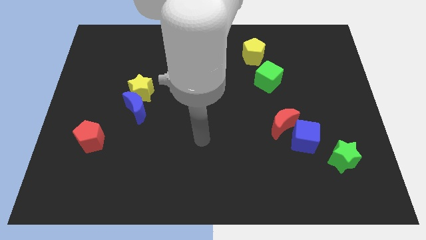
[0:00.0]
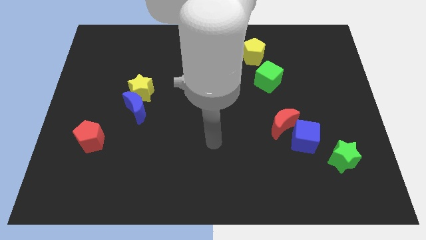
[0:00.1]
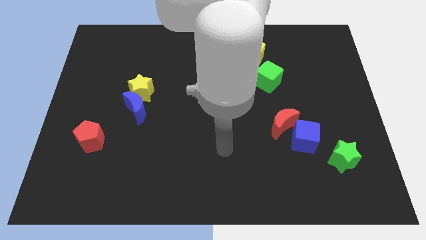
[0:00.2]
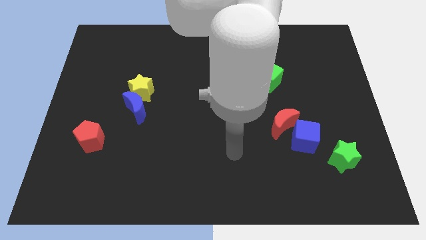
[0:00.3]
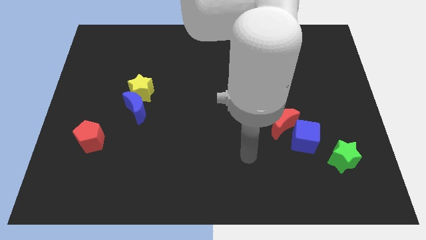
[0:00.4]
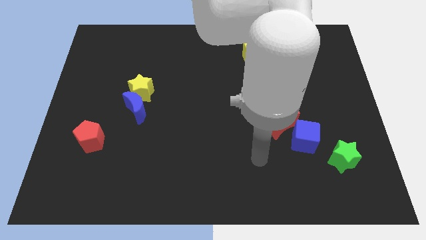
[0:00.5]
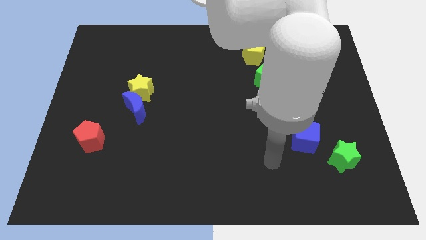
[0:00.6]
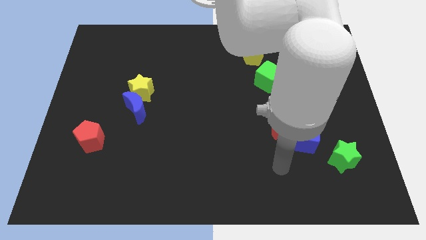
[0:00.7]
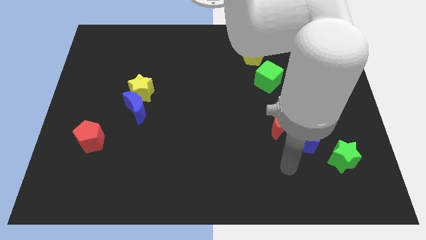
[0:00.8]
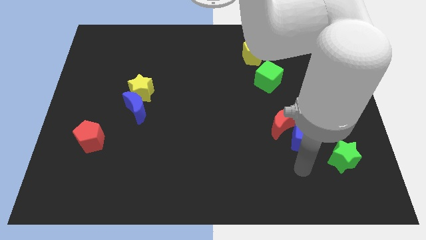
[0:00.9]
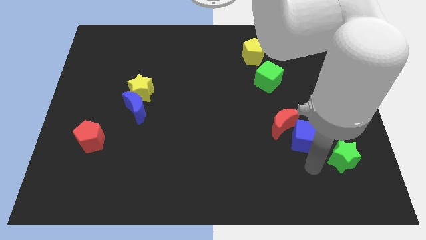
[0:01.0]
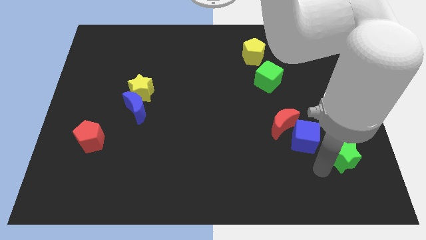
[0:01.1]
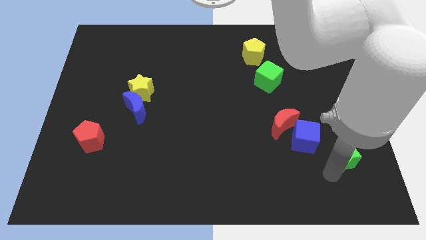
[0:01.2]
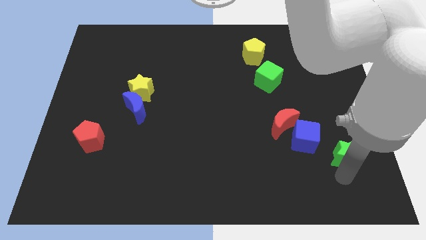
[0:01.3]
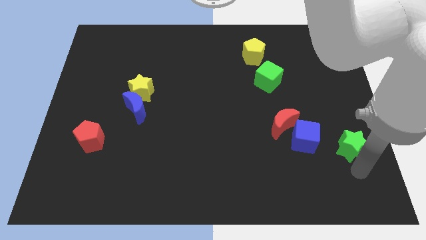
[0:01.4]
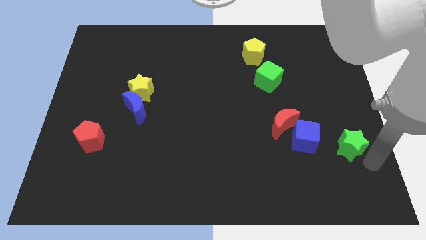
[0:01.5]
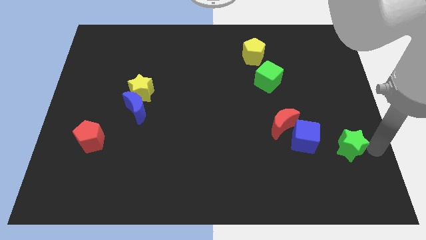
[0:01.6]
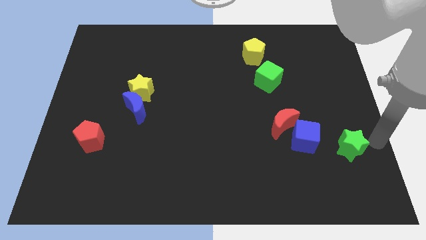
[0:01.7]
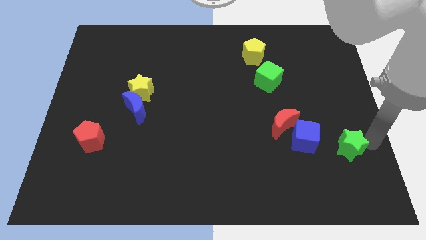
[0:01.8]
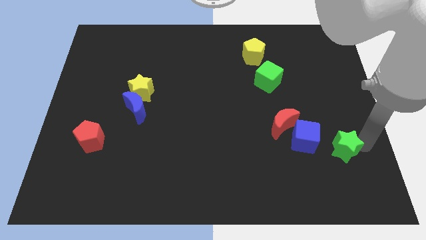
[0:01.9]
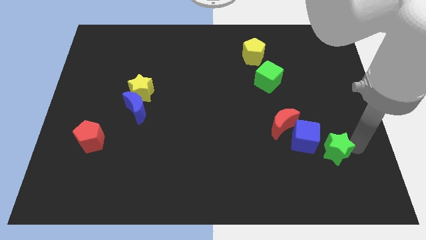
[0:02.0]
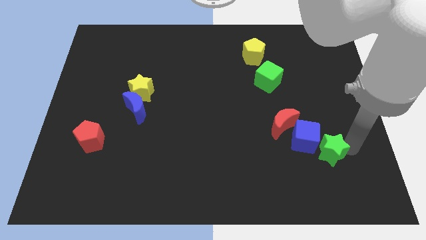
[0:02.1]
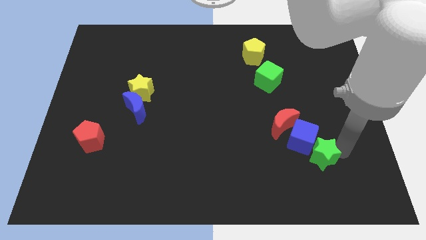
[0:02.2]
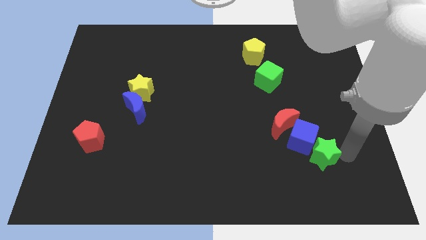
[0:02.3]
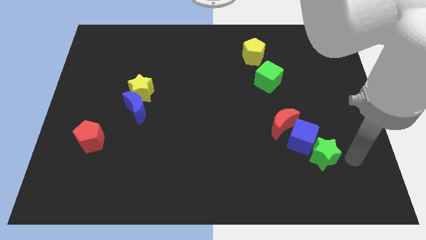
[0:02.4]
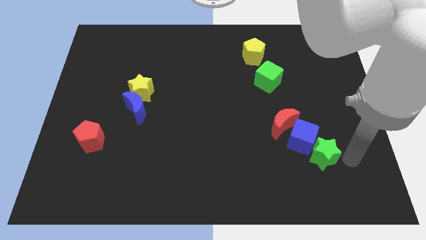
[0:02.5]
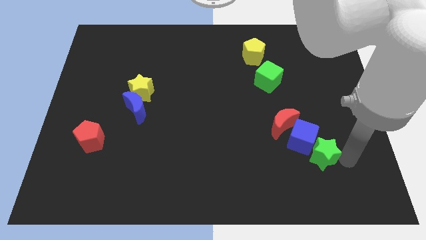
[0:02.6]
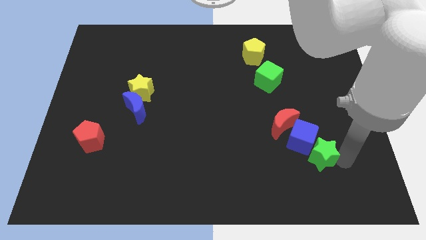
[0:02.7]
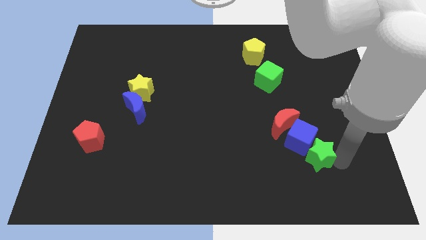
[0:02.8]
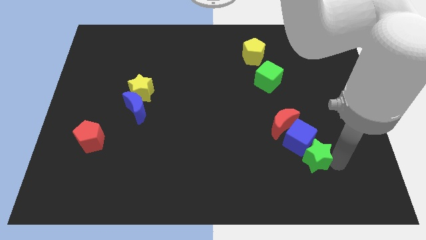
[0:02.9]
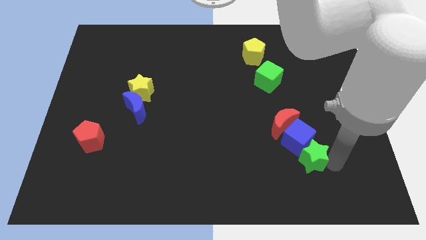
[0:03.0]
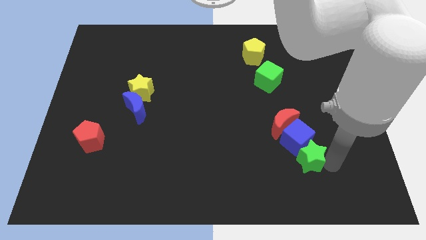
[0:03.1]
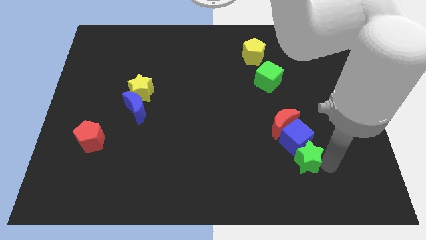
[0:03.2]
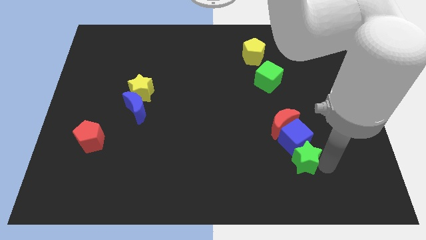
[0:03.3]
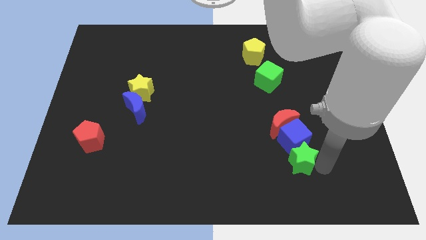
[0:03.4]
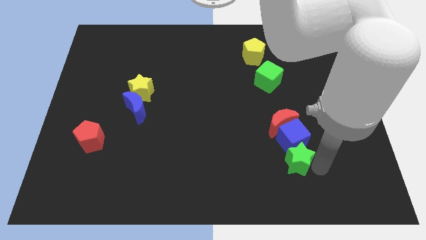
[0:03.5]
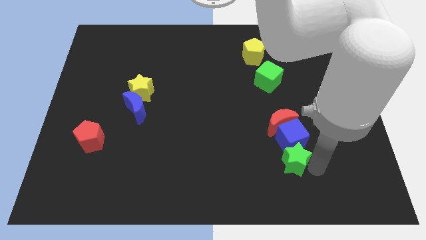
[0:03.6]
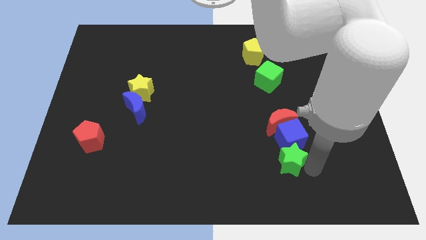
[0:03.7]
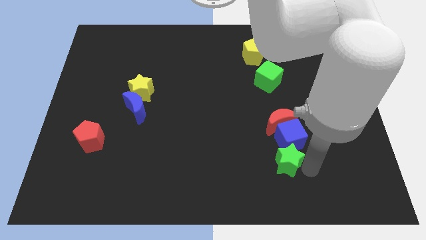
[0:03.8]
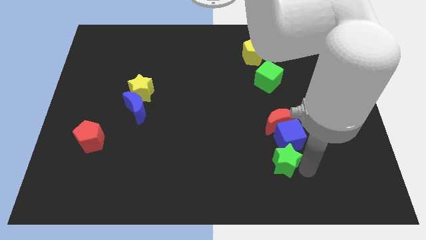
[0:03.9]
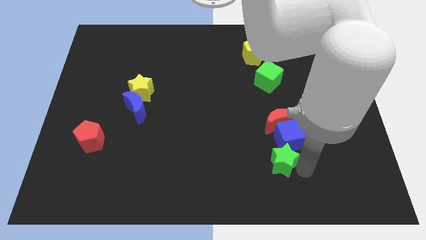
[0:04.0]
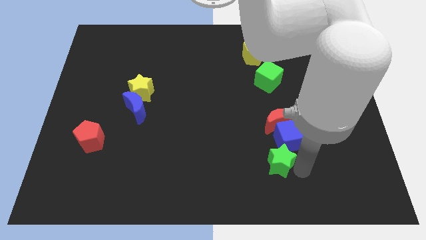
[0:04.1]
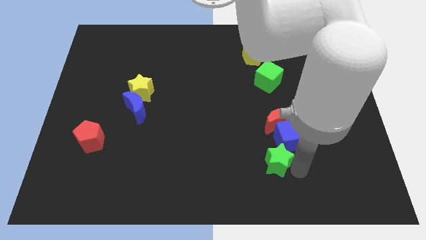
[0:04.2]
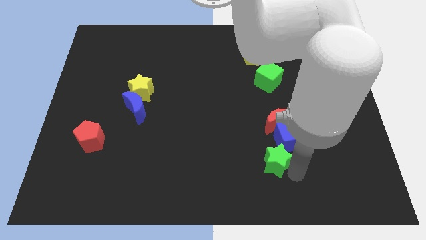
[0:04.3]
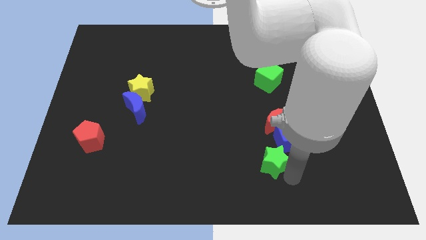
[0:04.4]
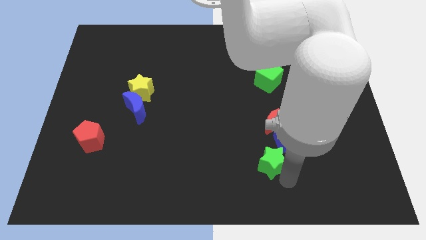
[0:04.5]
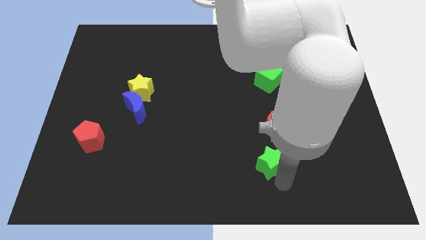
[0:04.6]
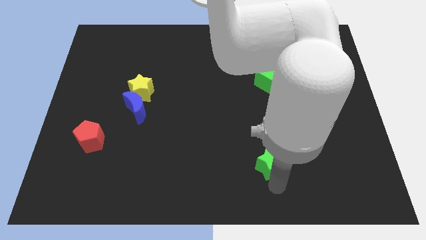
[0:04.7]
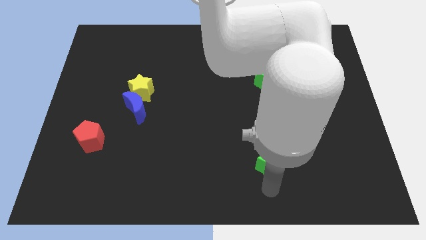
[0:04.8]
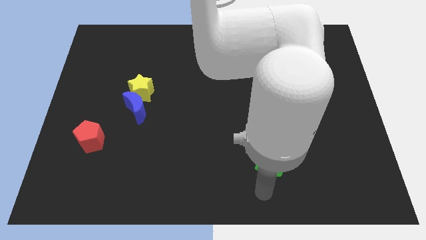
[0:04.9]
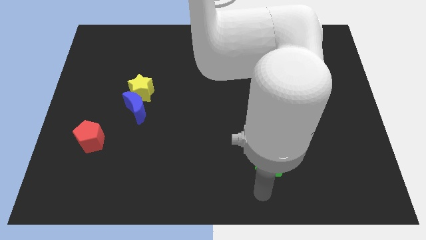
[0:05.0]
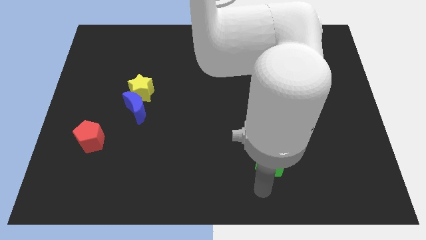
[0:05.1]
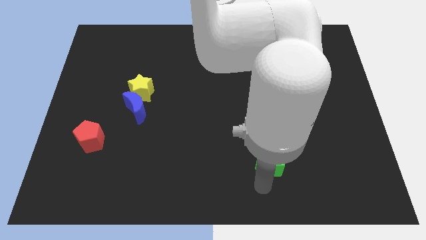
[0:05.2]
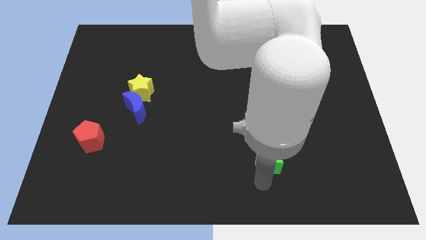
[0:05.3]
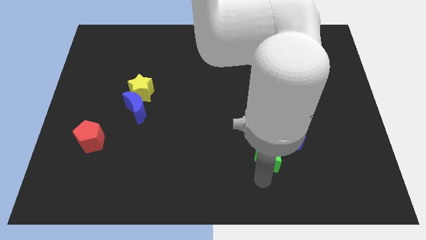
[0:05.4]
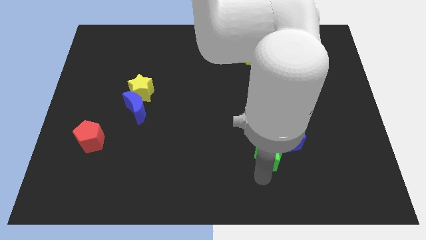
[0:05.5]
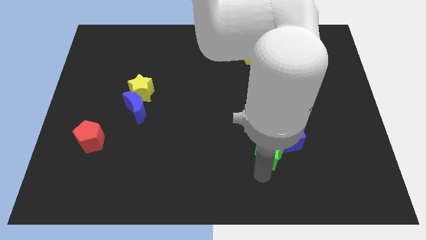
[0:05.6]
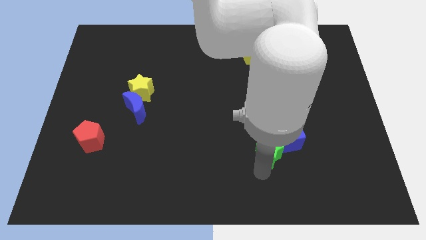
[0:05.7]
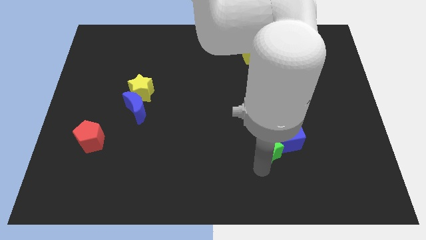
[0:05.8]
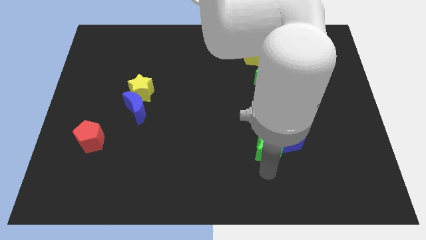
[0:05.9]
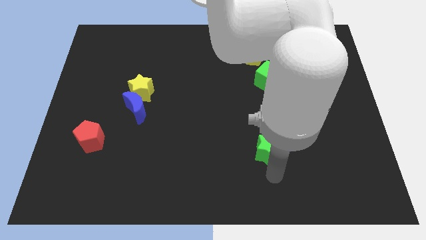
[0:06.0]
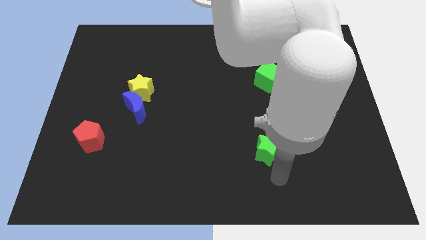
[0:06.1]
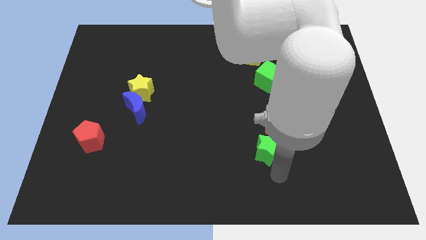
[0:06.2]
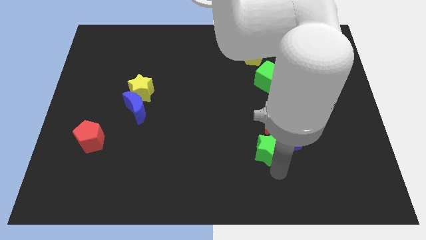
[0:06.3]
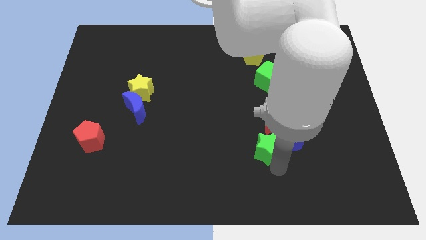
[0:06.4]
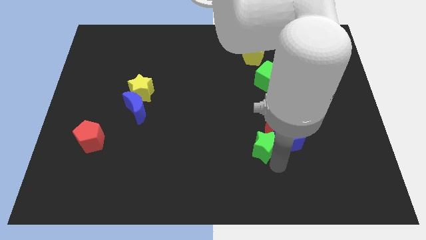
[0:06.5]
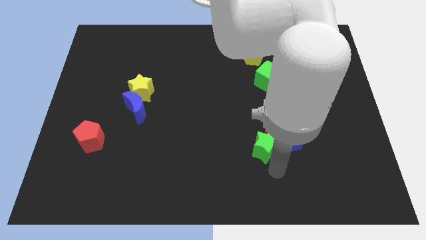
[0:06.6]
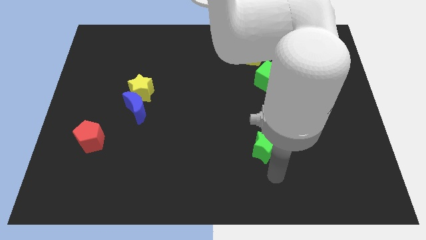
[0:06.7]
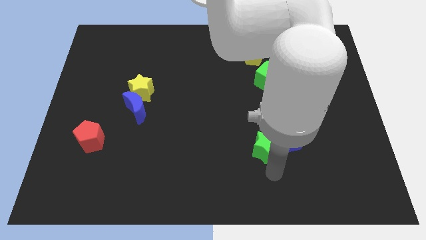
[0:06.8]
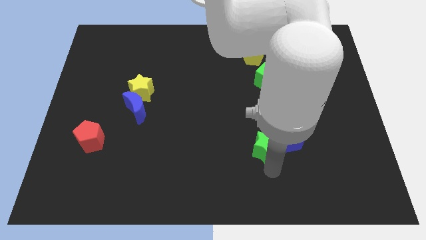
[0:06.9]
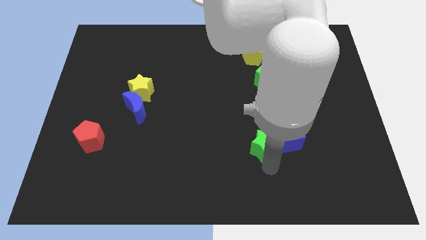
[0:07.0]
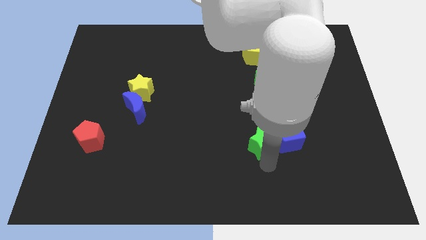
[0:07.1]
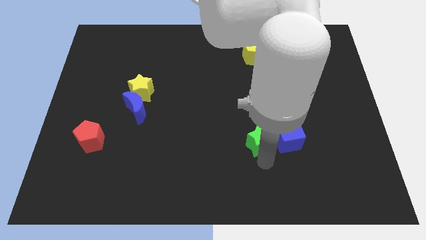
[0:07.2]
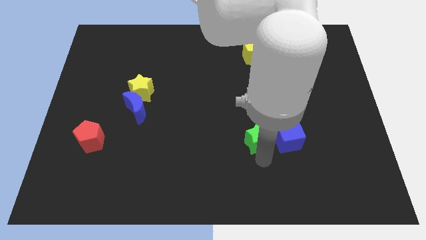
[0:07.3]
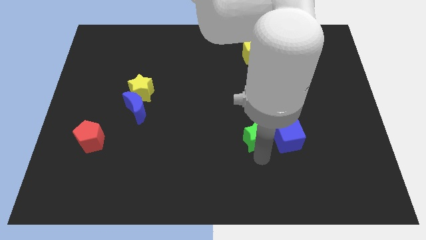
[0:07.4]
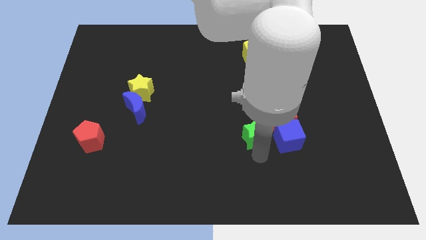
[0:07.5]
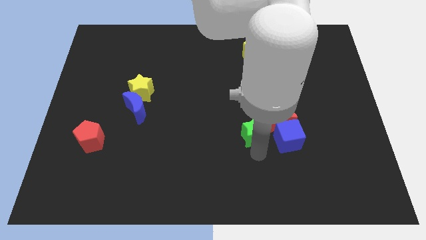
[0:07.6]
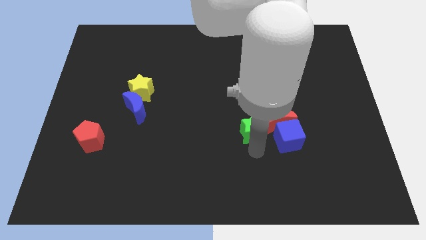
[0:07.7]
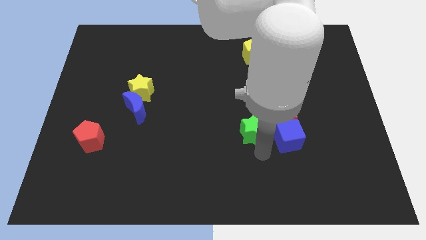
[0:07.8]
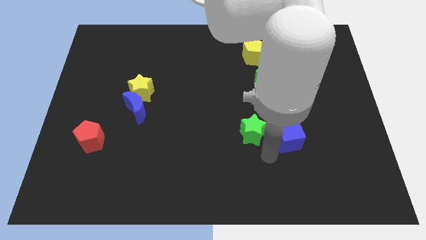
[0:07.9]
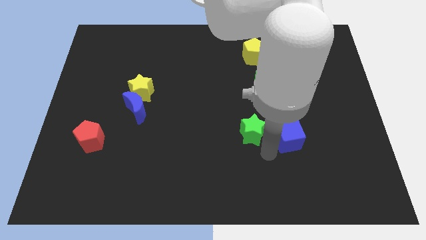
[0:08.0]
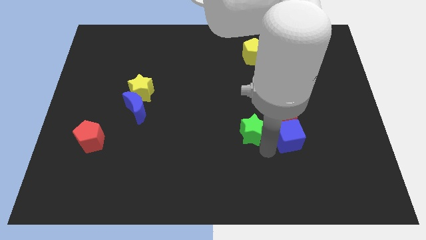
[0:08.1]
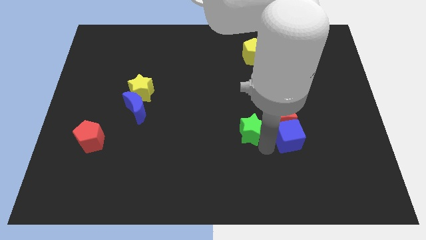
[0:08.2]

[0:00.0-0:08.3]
slide the green star to the center

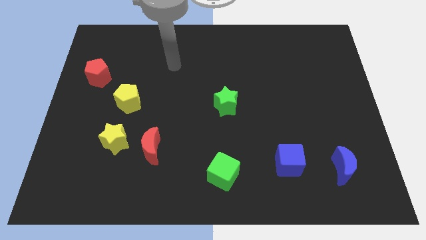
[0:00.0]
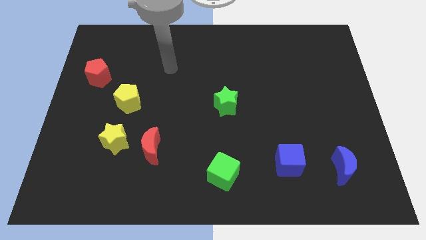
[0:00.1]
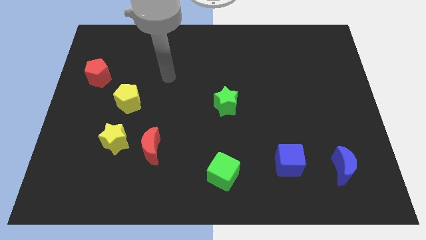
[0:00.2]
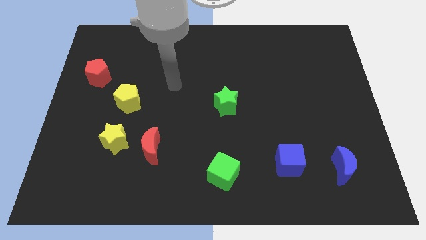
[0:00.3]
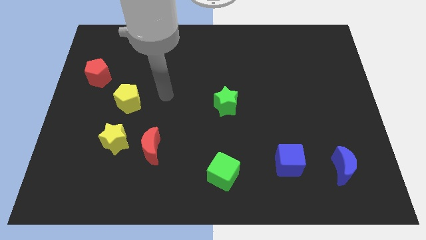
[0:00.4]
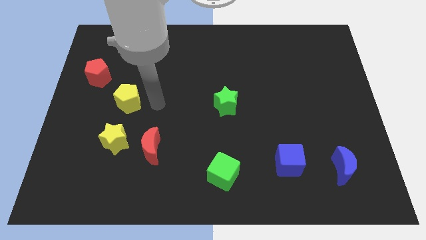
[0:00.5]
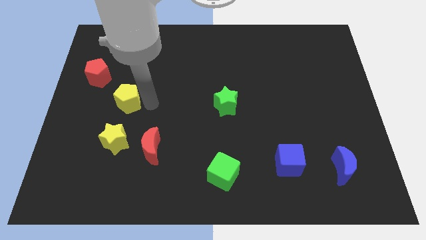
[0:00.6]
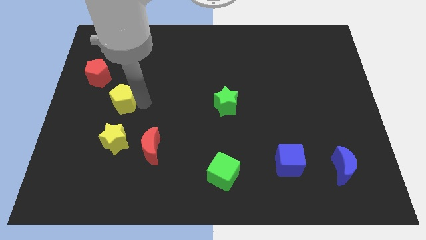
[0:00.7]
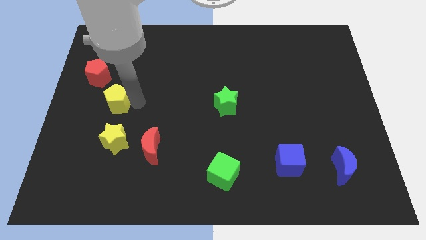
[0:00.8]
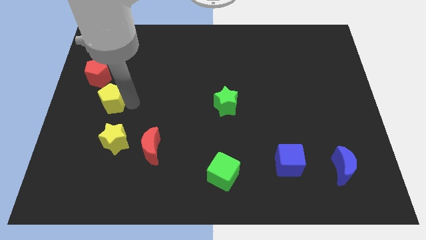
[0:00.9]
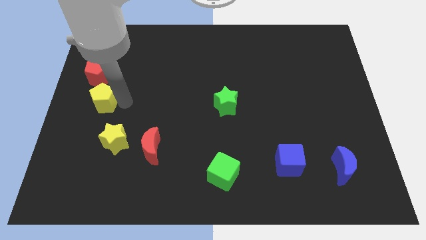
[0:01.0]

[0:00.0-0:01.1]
move the yellow pentagon to the left side
